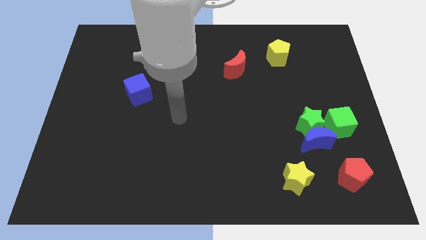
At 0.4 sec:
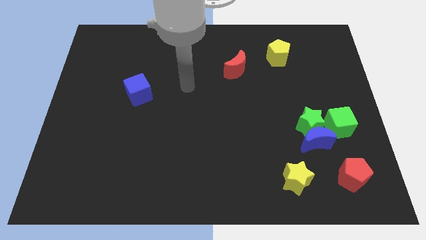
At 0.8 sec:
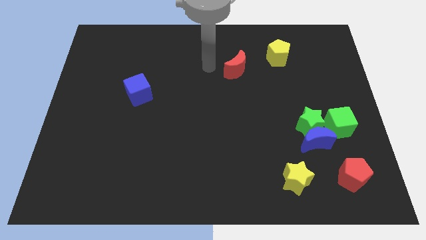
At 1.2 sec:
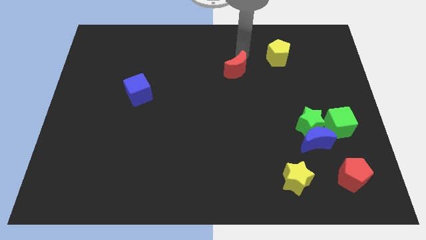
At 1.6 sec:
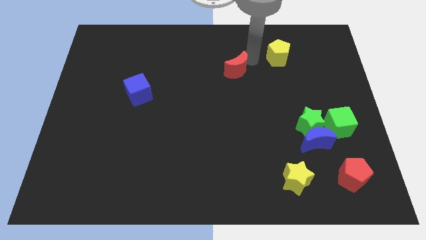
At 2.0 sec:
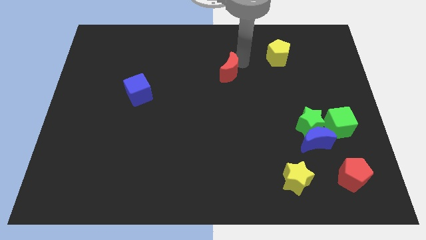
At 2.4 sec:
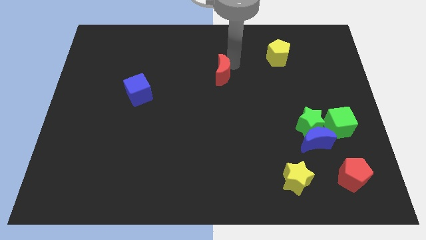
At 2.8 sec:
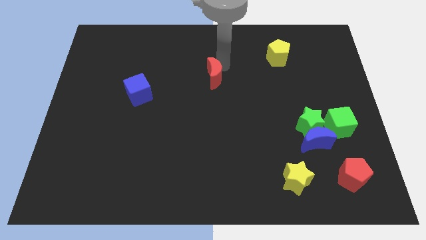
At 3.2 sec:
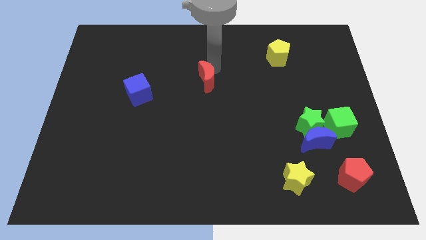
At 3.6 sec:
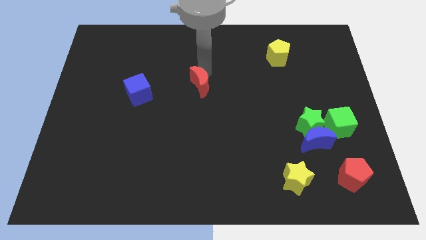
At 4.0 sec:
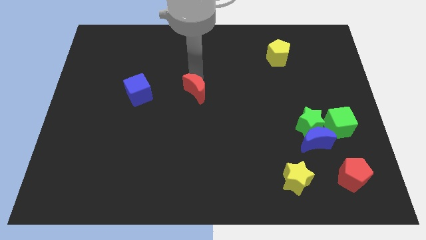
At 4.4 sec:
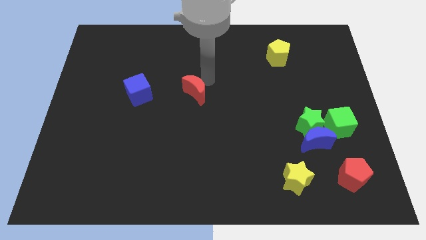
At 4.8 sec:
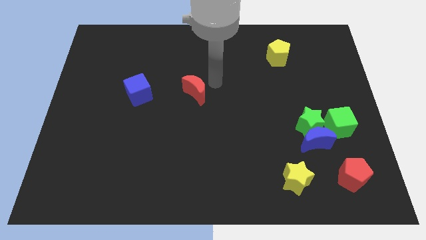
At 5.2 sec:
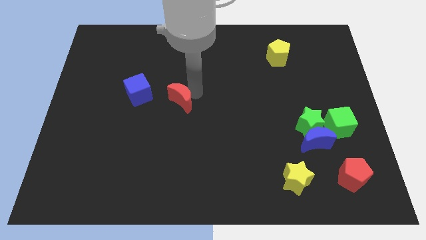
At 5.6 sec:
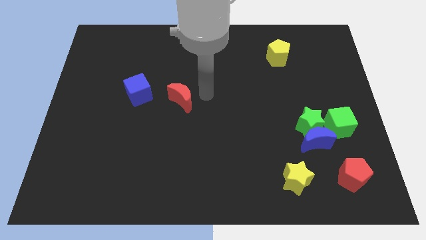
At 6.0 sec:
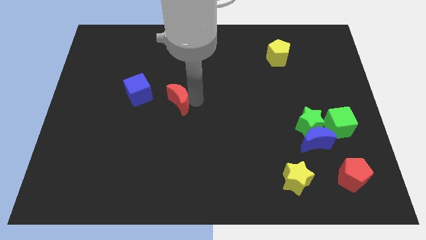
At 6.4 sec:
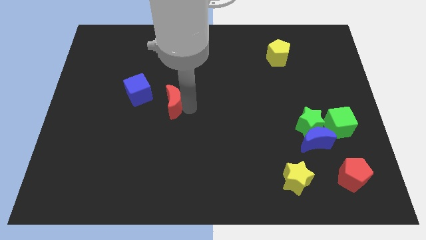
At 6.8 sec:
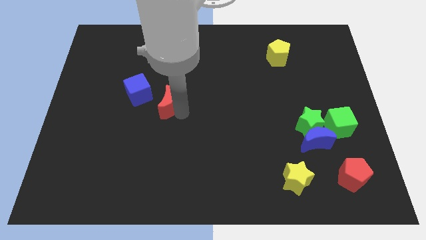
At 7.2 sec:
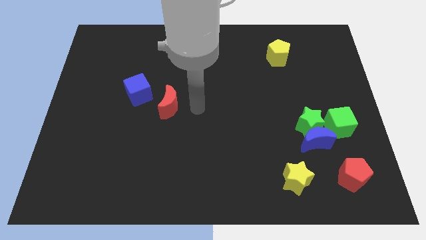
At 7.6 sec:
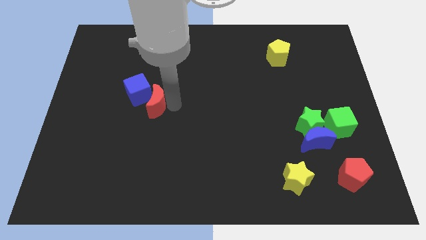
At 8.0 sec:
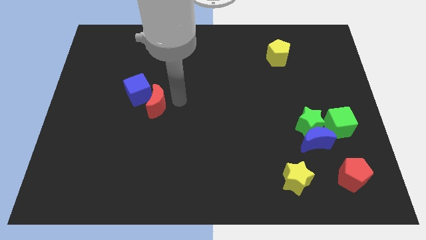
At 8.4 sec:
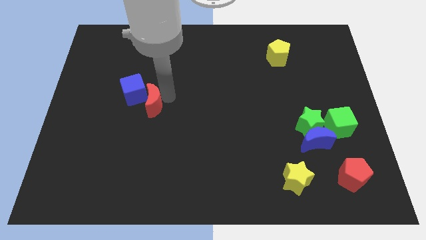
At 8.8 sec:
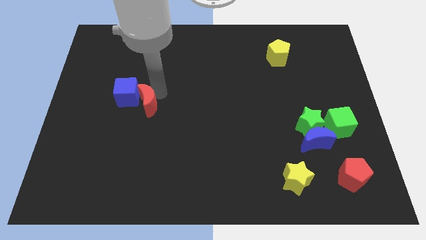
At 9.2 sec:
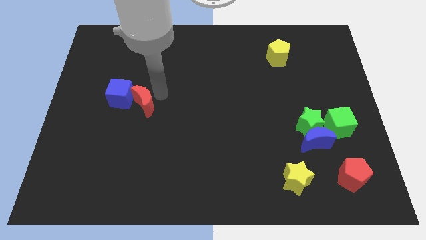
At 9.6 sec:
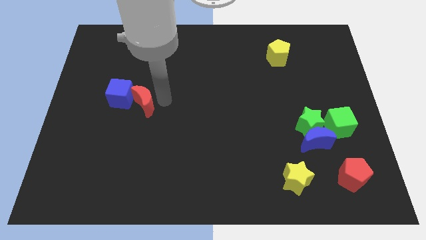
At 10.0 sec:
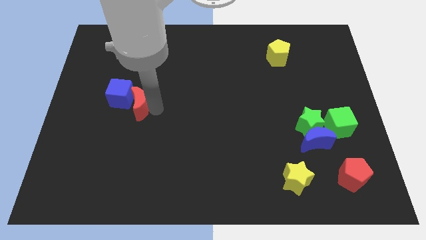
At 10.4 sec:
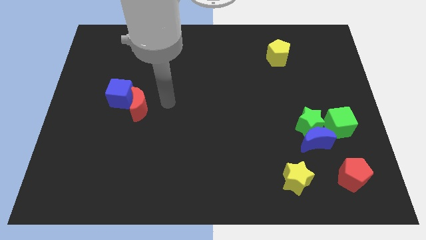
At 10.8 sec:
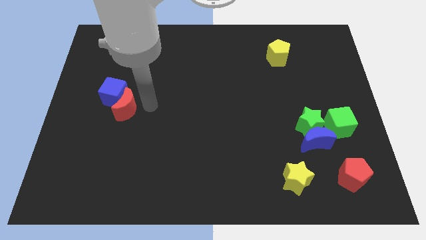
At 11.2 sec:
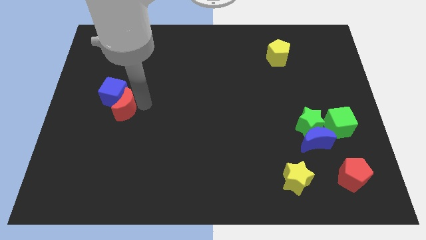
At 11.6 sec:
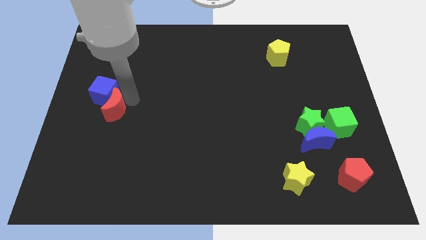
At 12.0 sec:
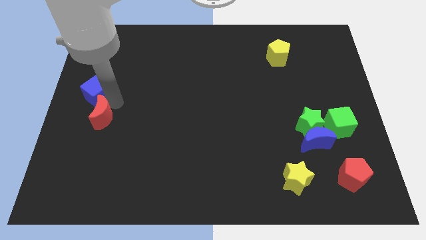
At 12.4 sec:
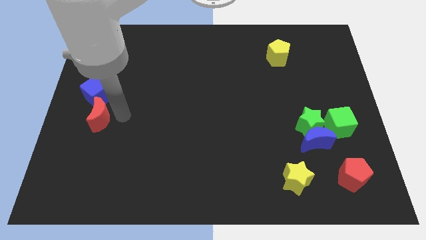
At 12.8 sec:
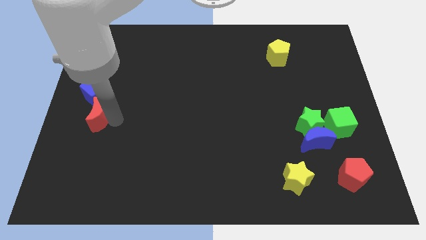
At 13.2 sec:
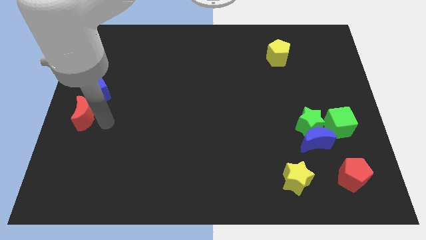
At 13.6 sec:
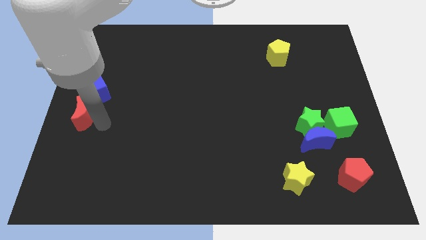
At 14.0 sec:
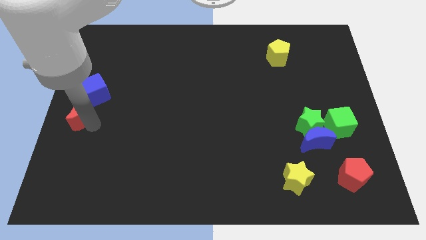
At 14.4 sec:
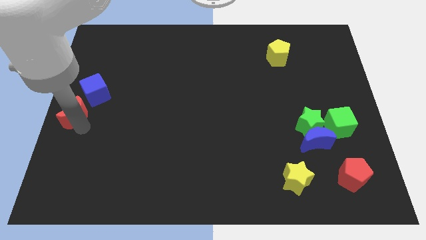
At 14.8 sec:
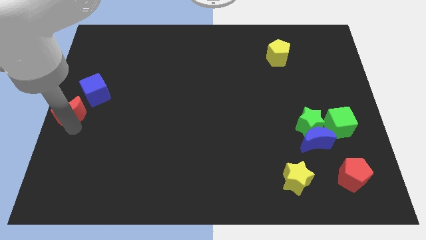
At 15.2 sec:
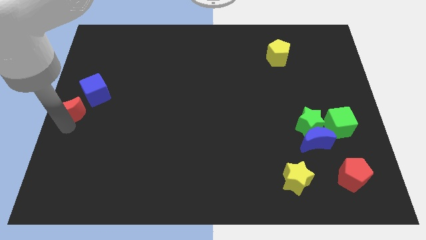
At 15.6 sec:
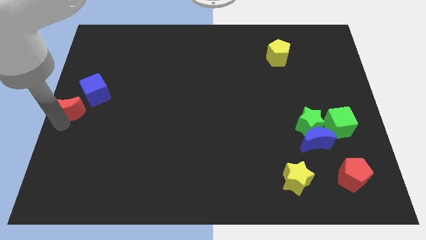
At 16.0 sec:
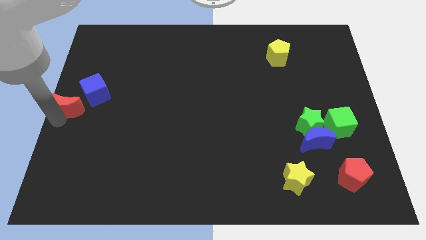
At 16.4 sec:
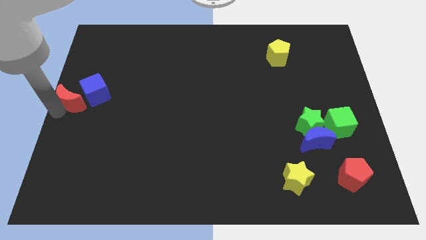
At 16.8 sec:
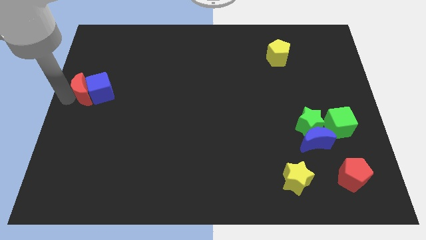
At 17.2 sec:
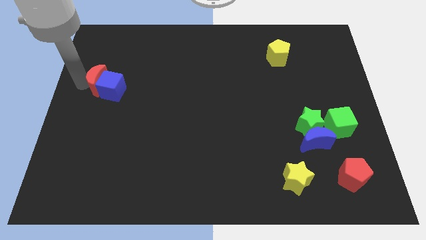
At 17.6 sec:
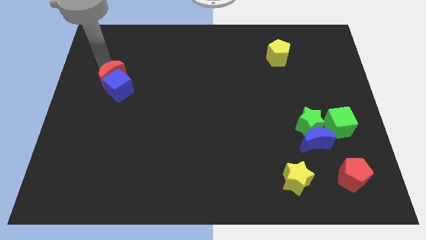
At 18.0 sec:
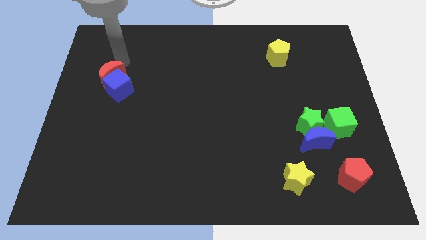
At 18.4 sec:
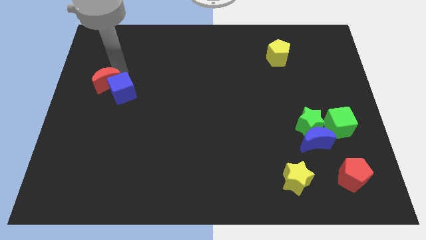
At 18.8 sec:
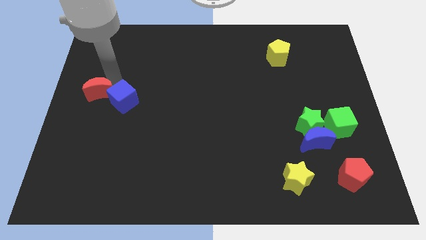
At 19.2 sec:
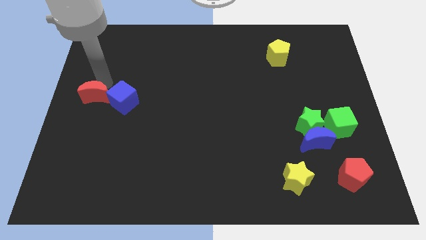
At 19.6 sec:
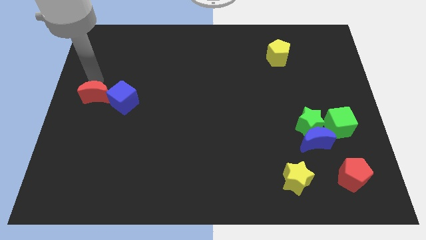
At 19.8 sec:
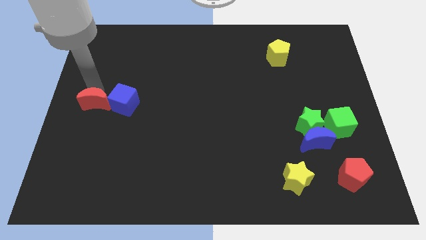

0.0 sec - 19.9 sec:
push the red moon to the bottom left side of the blue cube

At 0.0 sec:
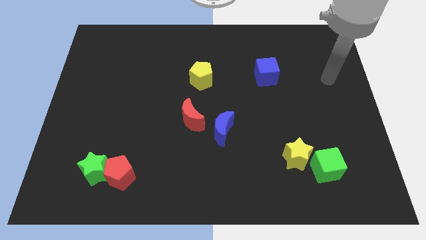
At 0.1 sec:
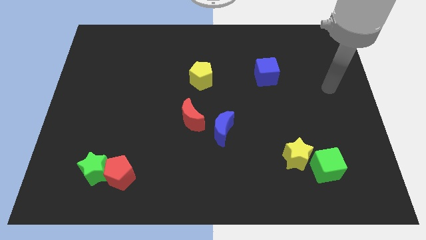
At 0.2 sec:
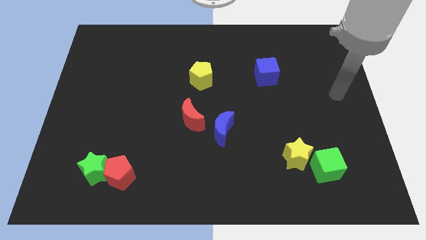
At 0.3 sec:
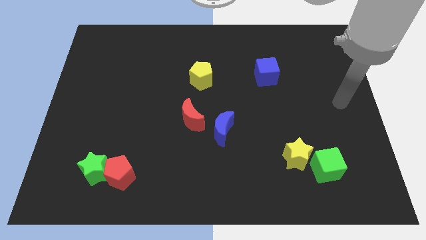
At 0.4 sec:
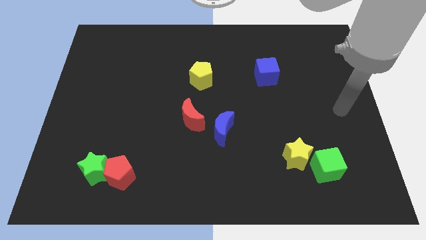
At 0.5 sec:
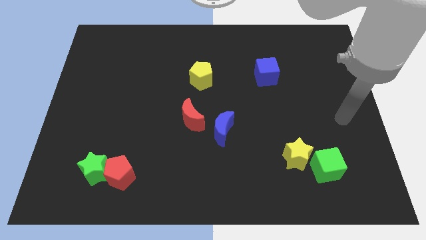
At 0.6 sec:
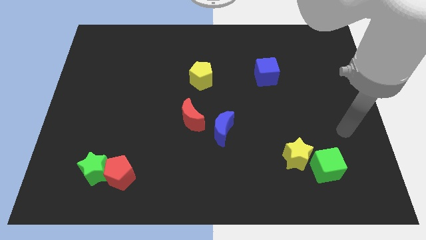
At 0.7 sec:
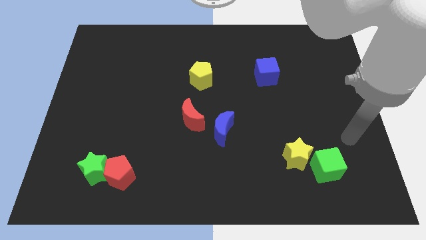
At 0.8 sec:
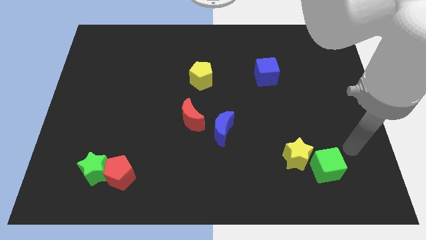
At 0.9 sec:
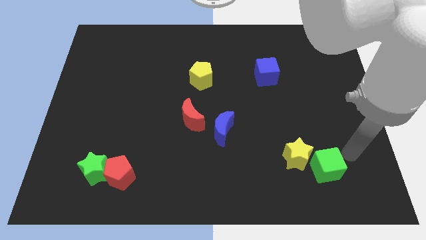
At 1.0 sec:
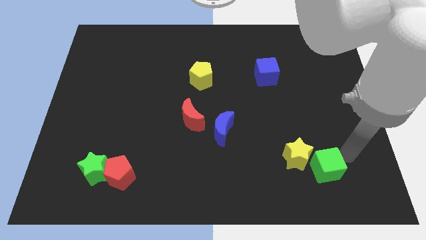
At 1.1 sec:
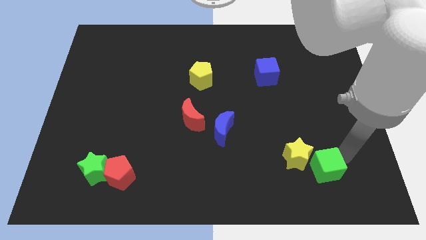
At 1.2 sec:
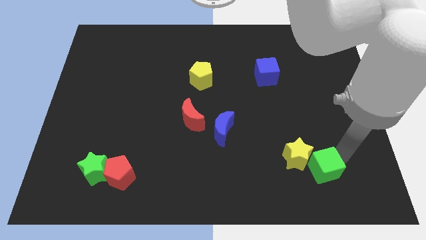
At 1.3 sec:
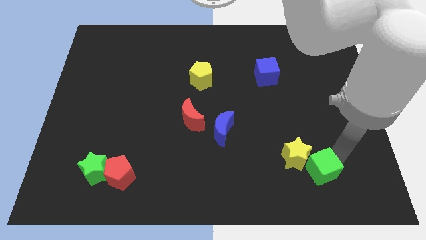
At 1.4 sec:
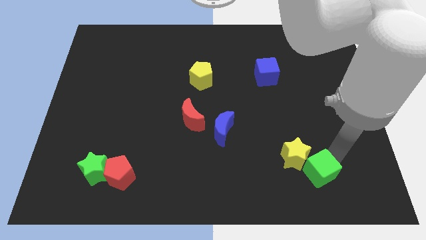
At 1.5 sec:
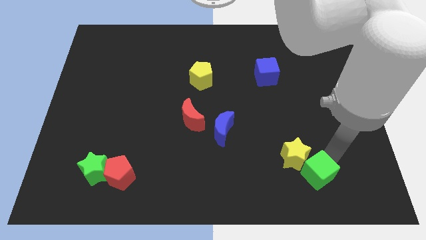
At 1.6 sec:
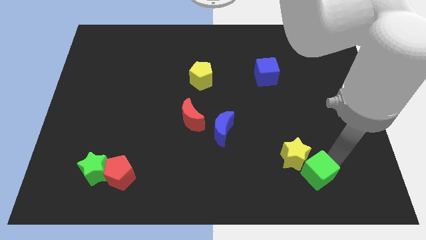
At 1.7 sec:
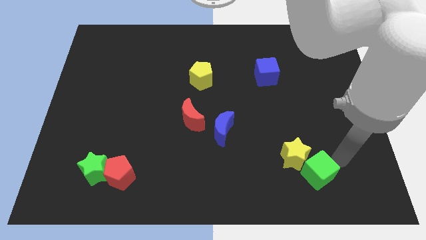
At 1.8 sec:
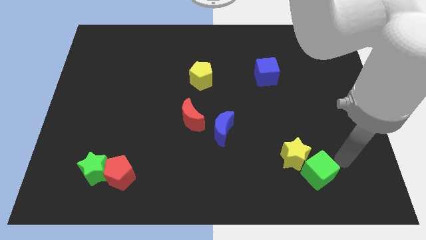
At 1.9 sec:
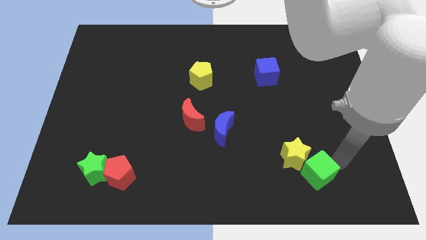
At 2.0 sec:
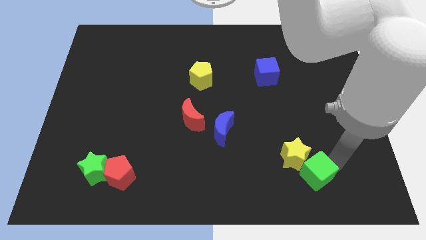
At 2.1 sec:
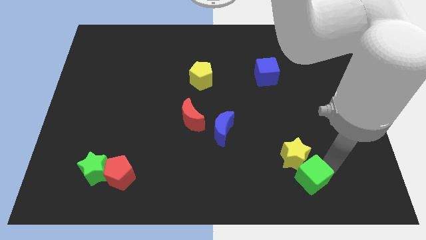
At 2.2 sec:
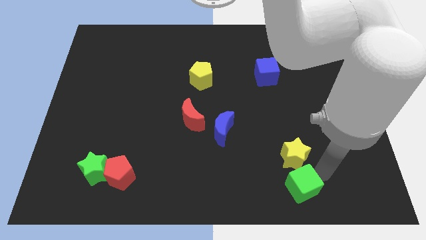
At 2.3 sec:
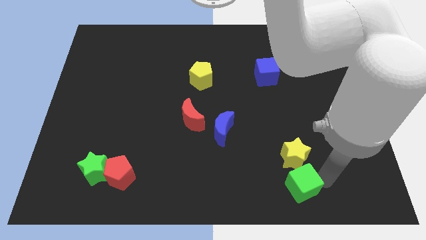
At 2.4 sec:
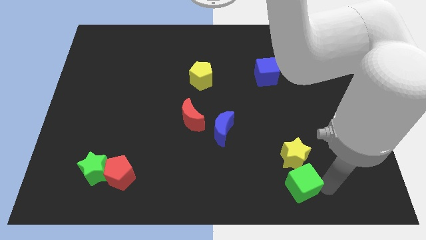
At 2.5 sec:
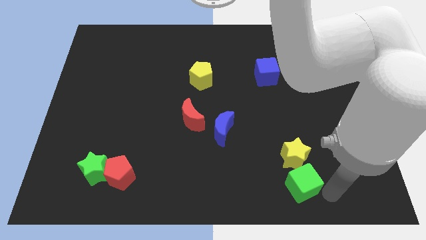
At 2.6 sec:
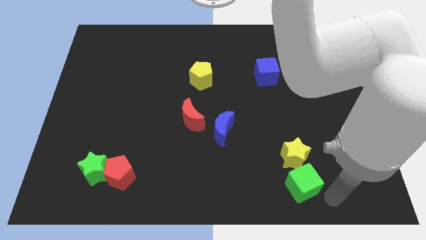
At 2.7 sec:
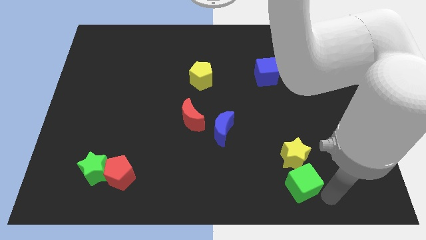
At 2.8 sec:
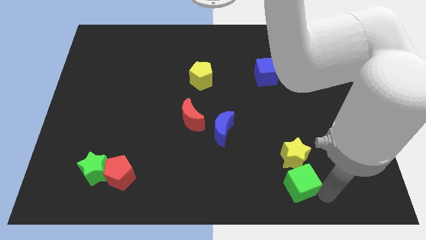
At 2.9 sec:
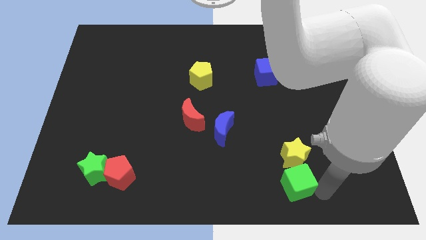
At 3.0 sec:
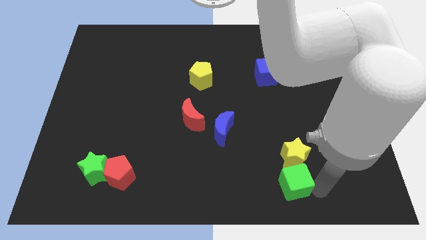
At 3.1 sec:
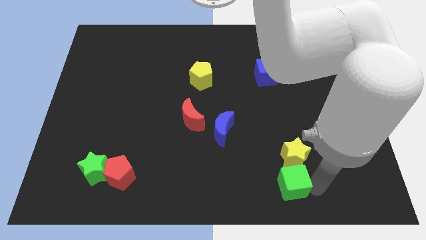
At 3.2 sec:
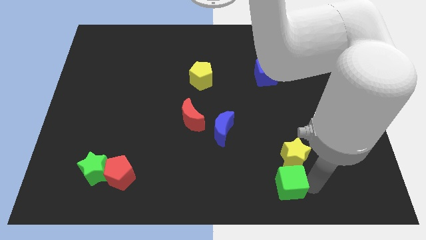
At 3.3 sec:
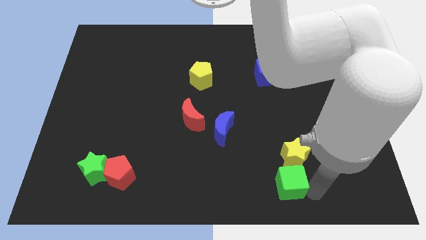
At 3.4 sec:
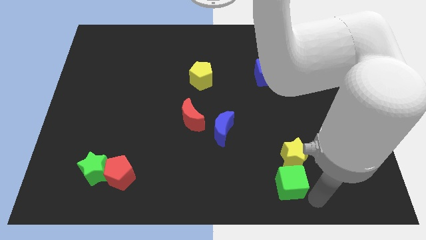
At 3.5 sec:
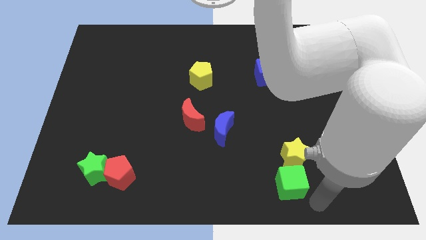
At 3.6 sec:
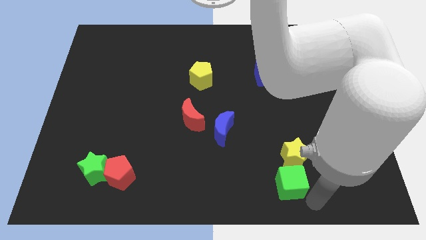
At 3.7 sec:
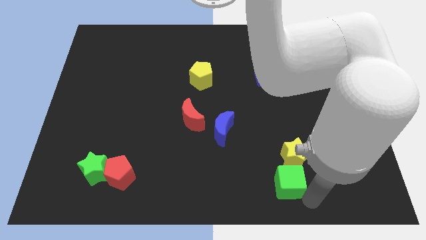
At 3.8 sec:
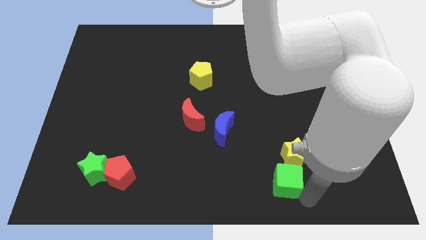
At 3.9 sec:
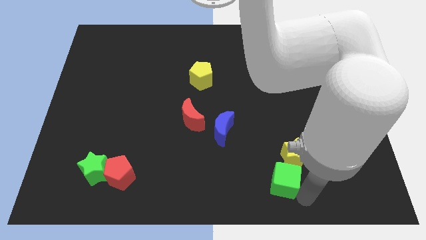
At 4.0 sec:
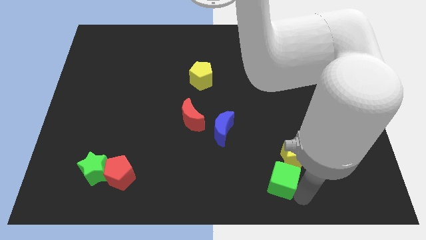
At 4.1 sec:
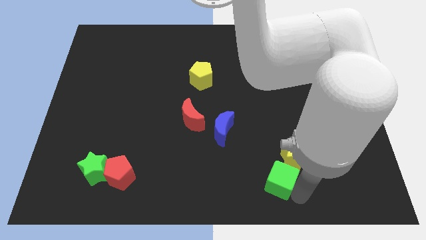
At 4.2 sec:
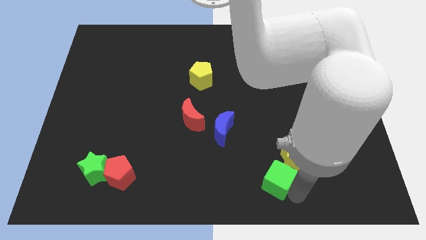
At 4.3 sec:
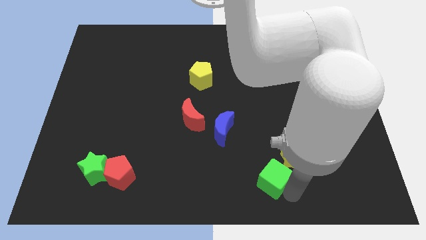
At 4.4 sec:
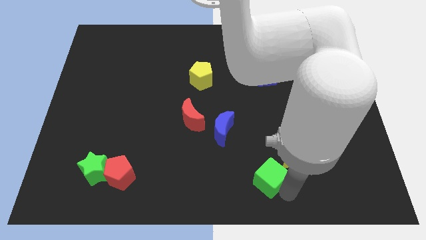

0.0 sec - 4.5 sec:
put the green cube just left of the yellow star
